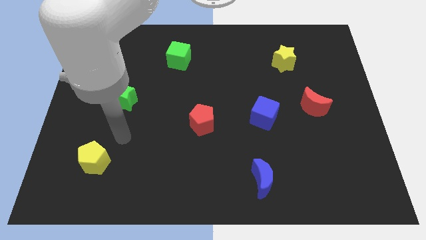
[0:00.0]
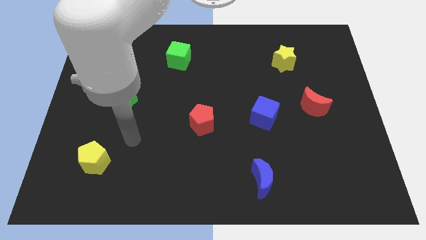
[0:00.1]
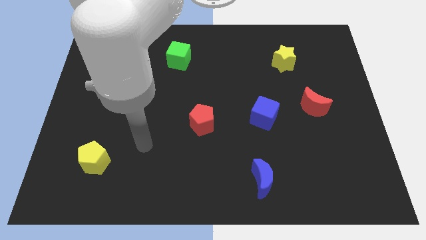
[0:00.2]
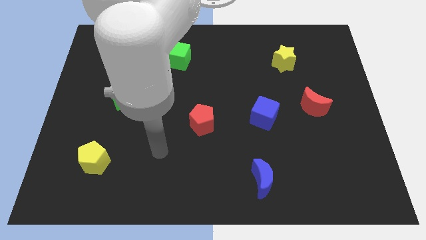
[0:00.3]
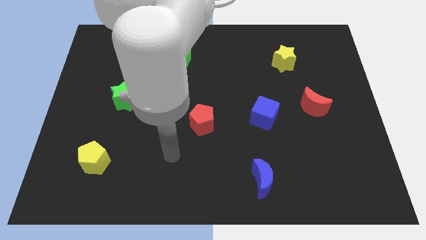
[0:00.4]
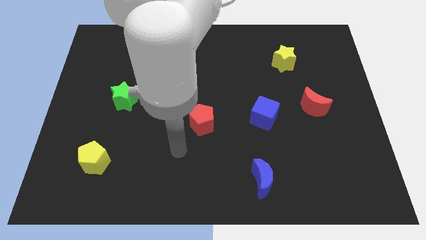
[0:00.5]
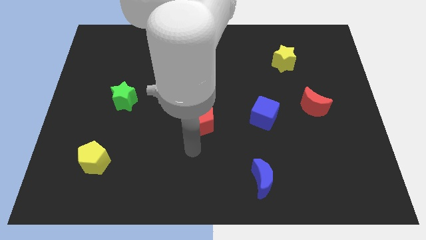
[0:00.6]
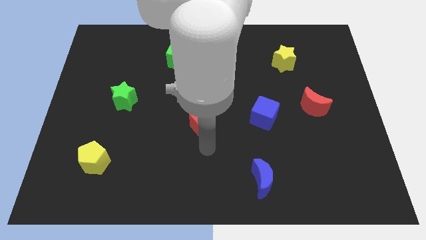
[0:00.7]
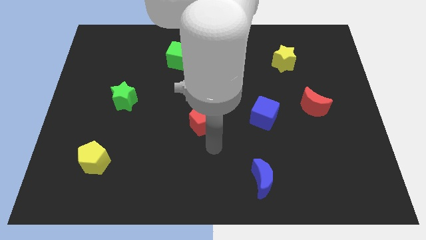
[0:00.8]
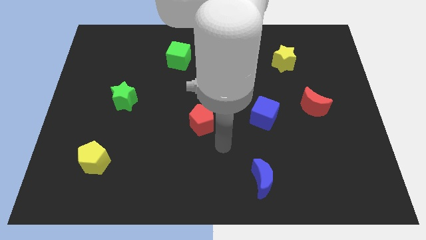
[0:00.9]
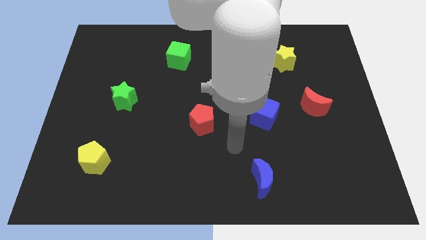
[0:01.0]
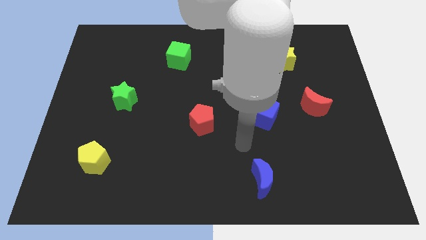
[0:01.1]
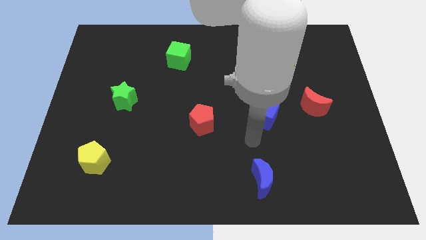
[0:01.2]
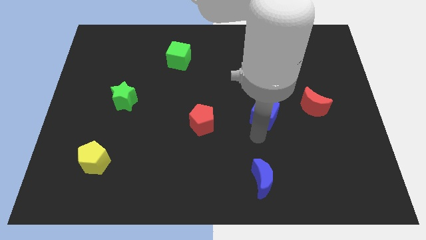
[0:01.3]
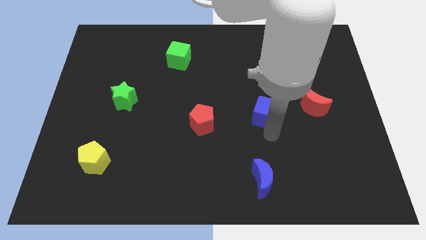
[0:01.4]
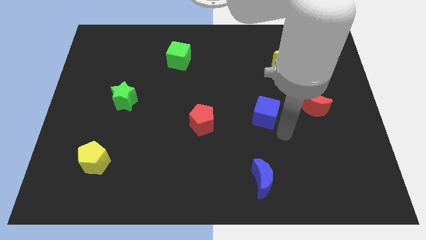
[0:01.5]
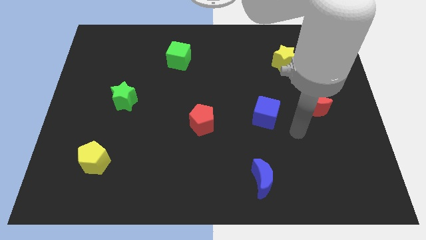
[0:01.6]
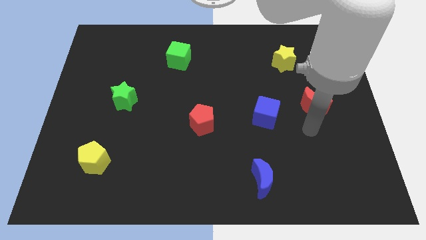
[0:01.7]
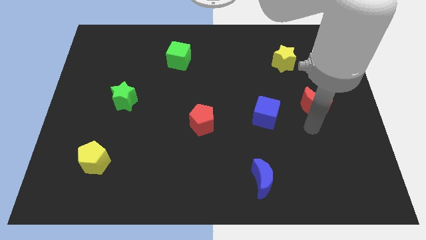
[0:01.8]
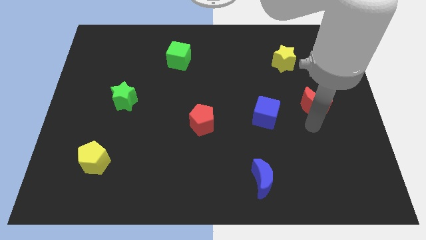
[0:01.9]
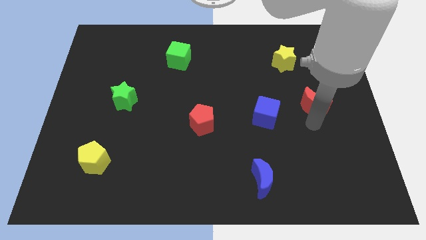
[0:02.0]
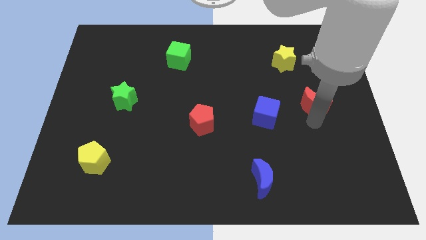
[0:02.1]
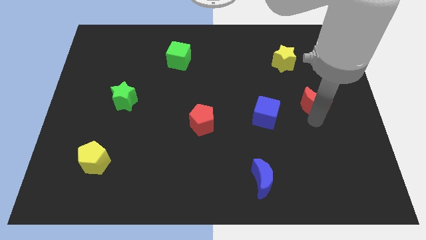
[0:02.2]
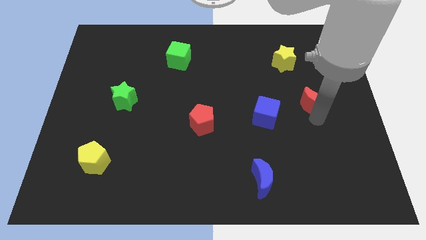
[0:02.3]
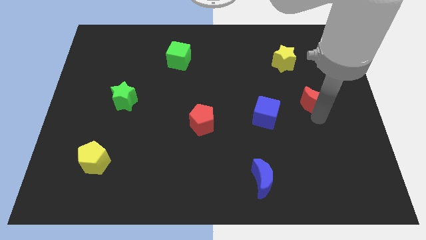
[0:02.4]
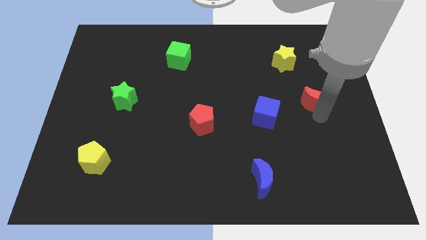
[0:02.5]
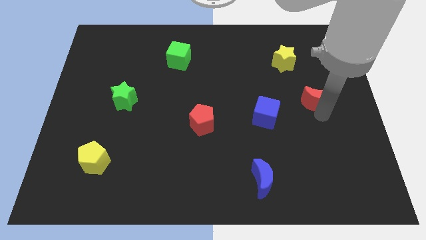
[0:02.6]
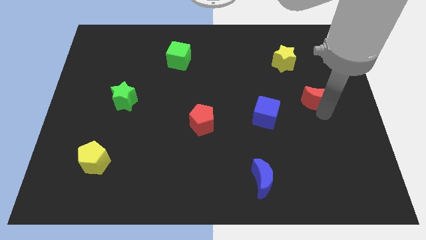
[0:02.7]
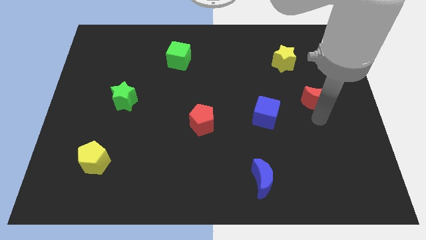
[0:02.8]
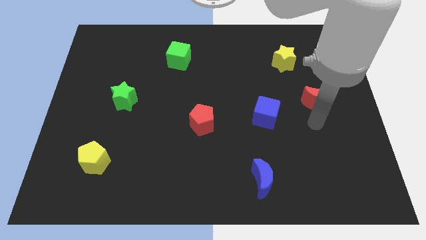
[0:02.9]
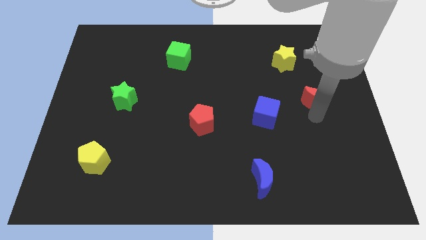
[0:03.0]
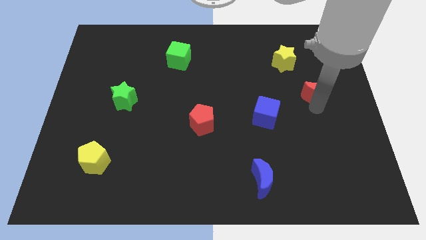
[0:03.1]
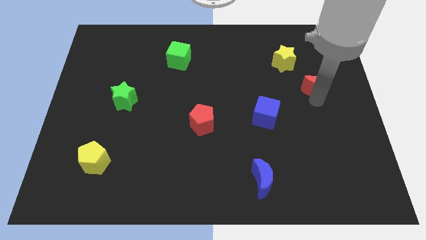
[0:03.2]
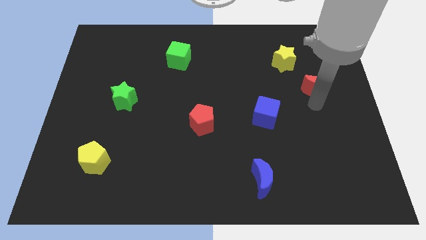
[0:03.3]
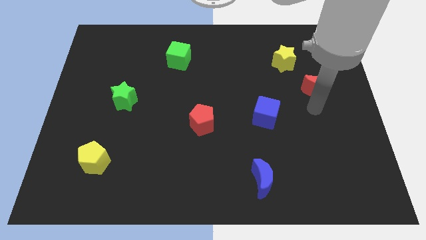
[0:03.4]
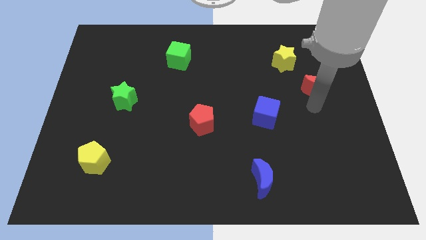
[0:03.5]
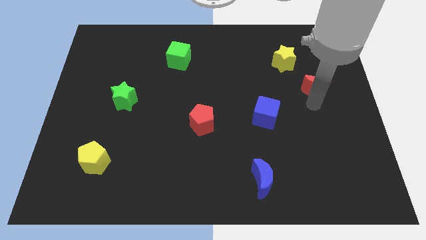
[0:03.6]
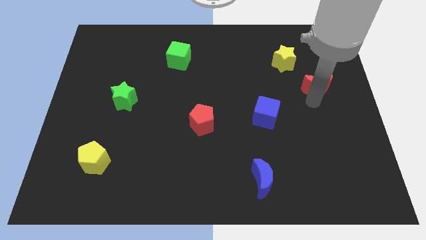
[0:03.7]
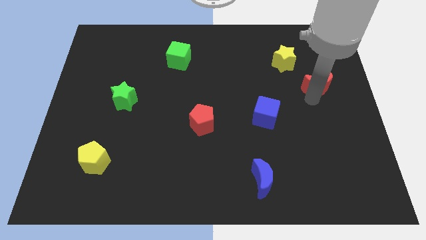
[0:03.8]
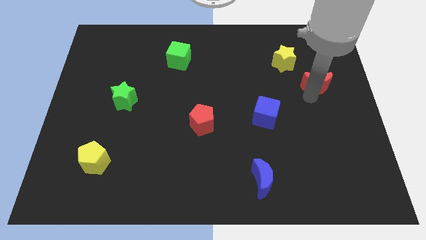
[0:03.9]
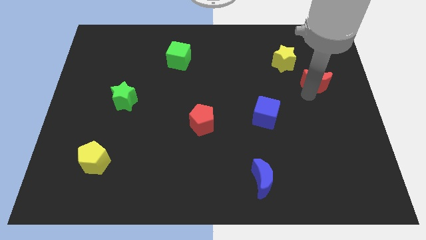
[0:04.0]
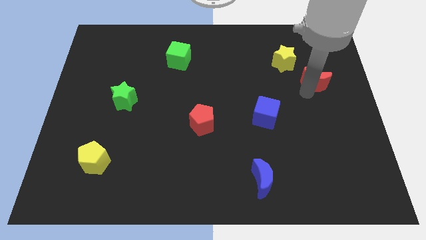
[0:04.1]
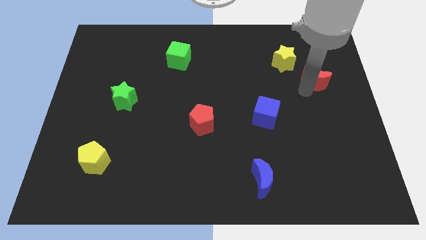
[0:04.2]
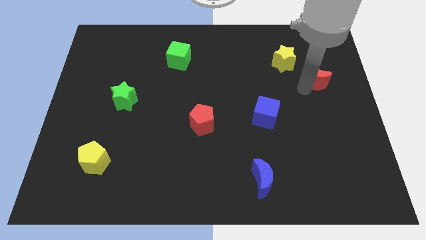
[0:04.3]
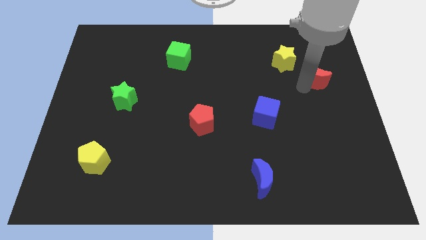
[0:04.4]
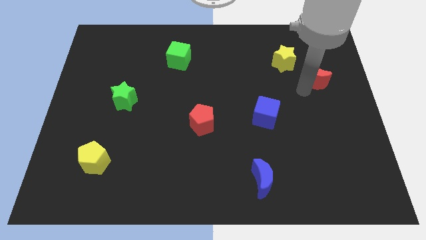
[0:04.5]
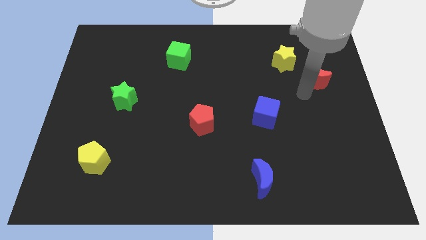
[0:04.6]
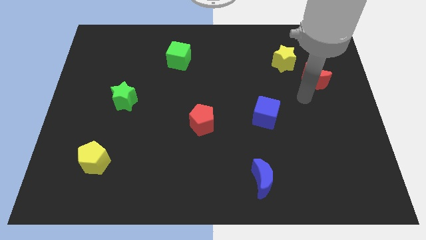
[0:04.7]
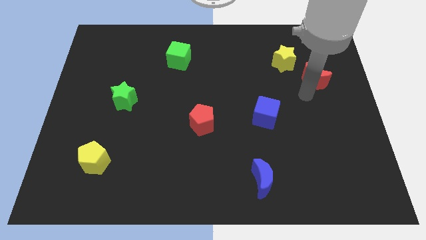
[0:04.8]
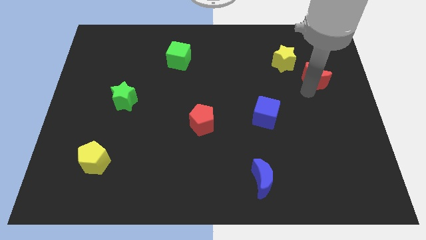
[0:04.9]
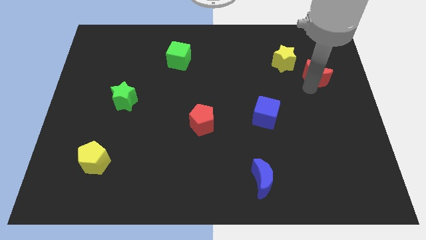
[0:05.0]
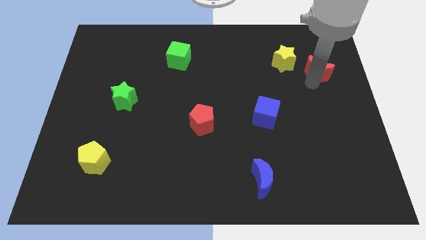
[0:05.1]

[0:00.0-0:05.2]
push the red moon to the right side of the yellow star

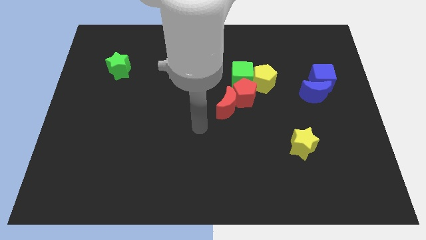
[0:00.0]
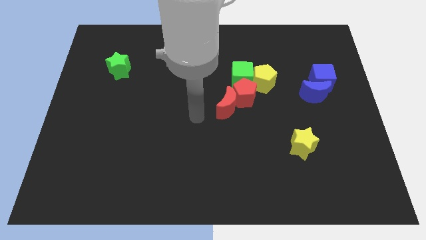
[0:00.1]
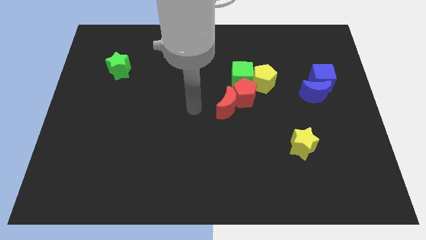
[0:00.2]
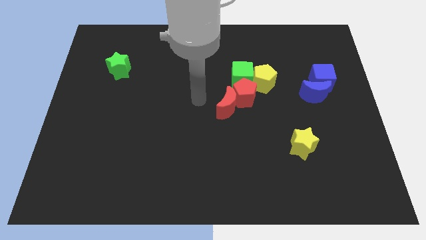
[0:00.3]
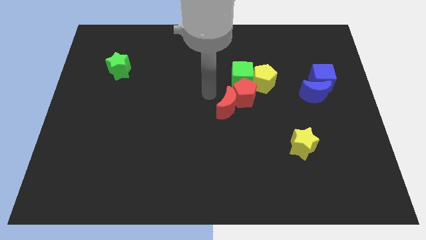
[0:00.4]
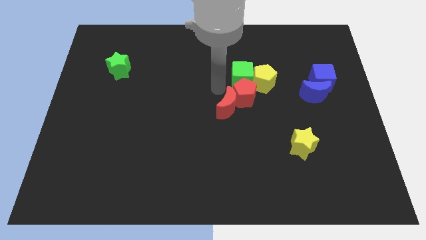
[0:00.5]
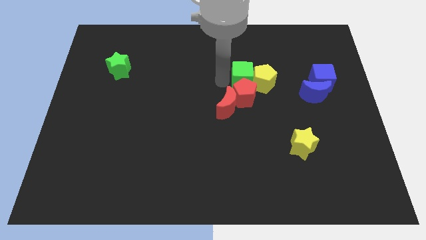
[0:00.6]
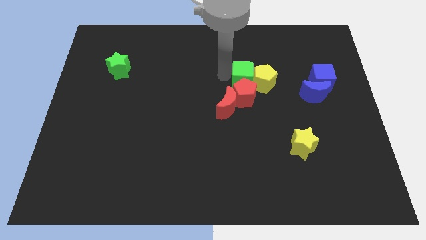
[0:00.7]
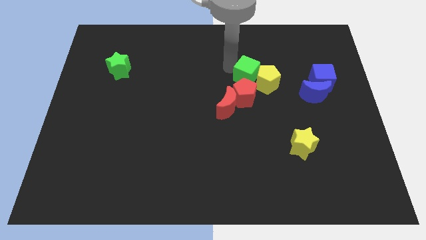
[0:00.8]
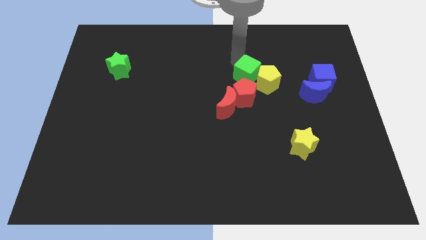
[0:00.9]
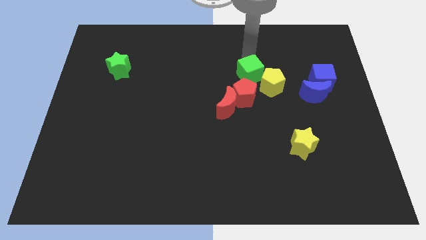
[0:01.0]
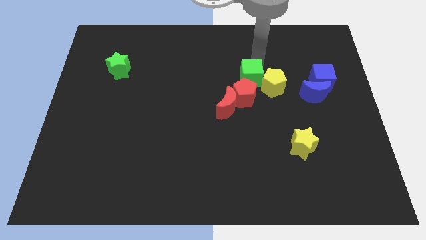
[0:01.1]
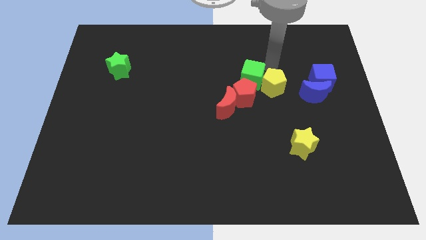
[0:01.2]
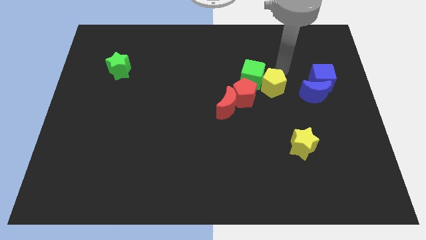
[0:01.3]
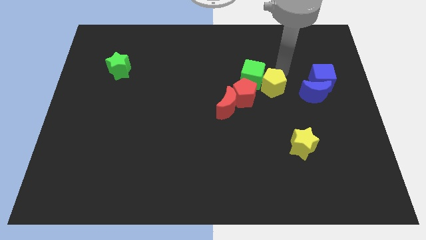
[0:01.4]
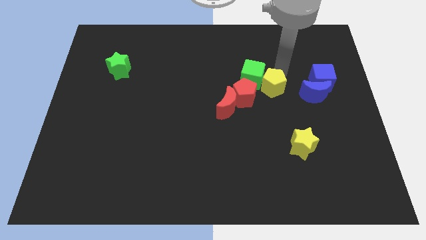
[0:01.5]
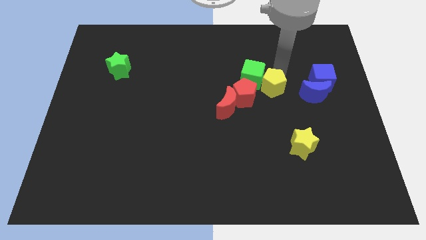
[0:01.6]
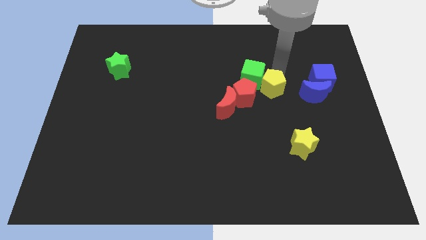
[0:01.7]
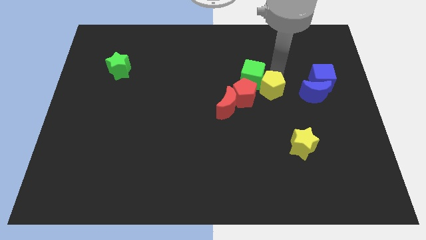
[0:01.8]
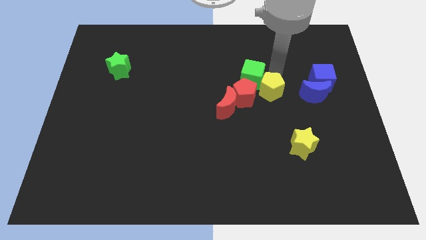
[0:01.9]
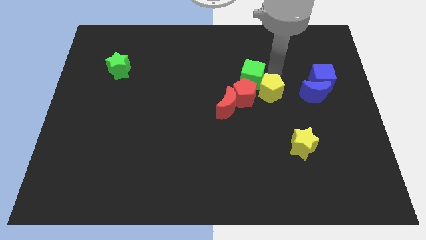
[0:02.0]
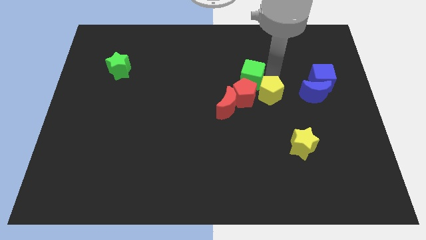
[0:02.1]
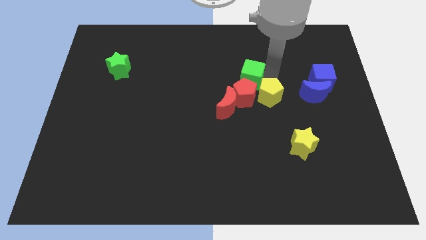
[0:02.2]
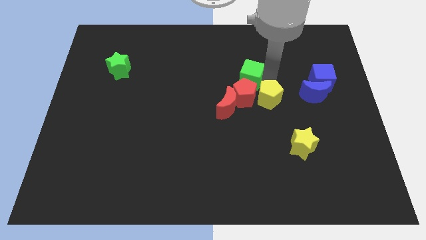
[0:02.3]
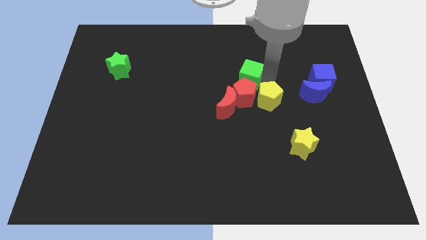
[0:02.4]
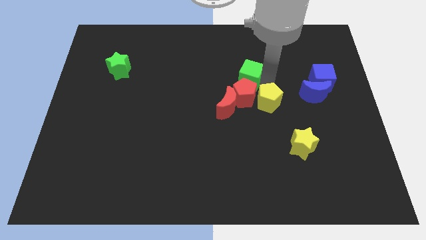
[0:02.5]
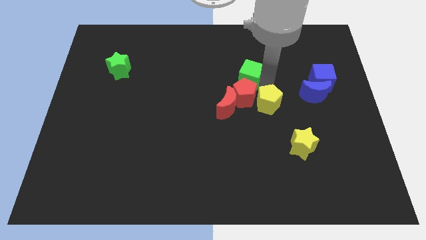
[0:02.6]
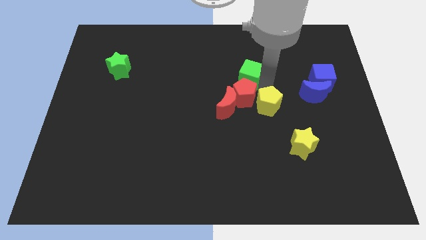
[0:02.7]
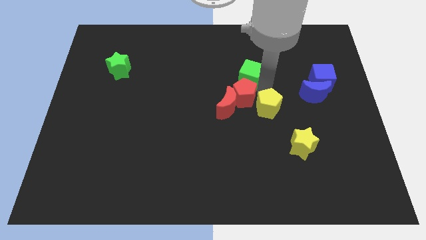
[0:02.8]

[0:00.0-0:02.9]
slide the yellow pentagon to the top left side of the yellow star
